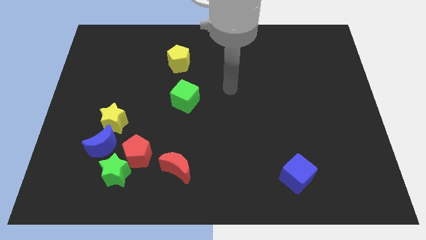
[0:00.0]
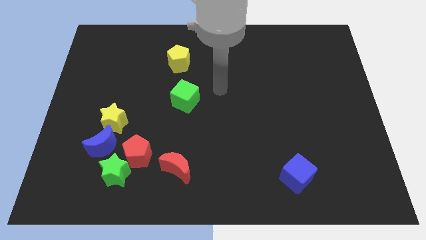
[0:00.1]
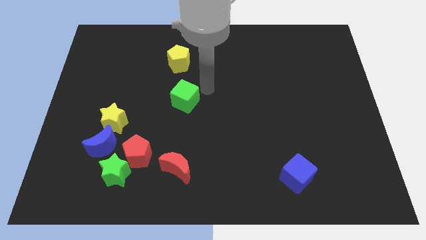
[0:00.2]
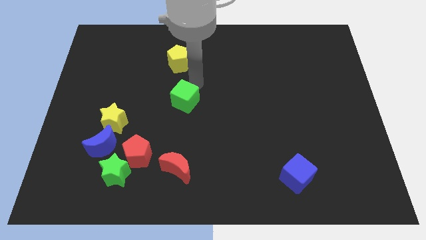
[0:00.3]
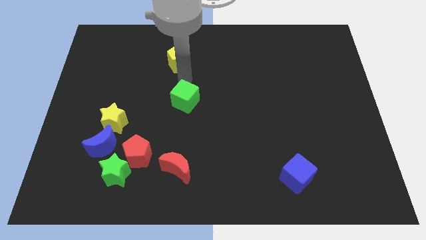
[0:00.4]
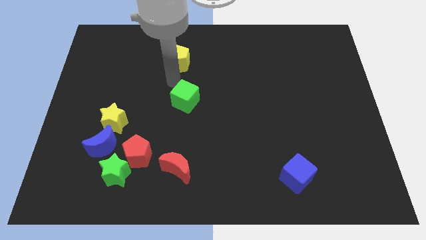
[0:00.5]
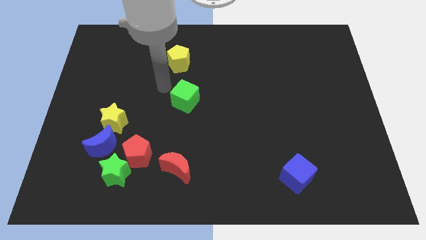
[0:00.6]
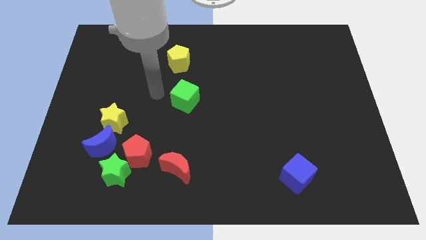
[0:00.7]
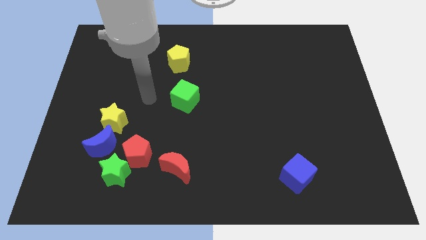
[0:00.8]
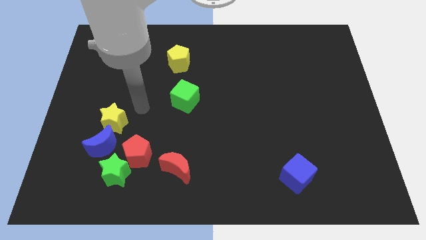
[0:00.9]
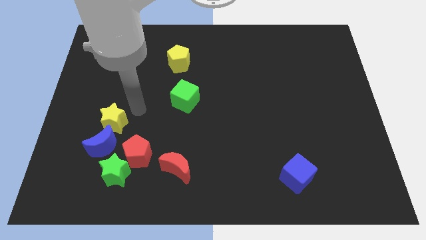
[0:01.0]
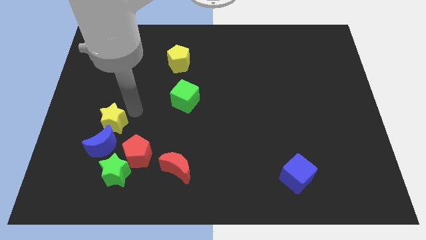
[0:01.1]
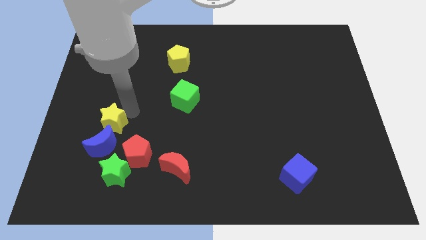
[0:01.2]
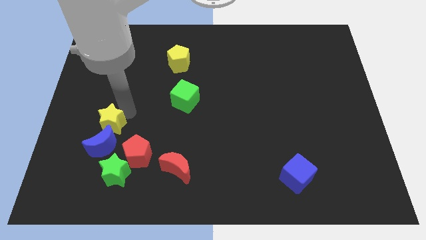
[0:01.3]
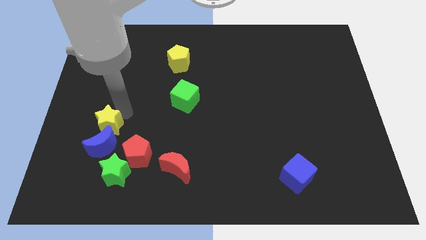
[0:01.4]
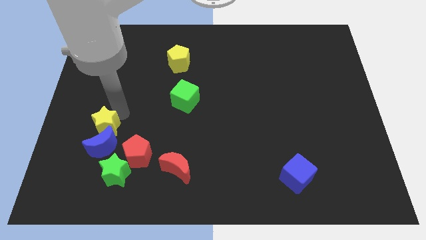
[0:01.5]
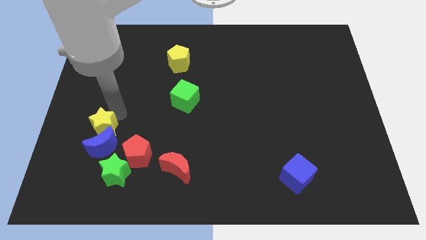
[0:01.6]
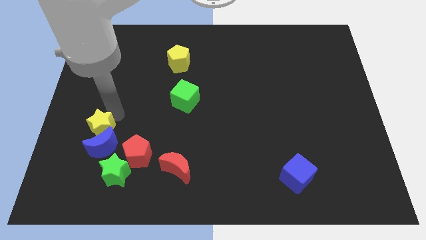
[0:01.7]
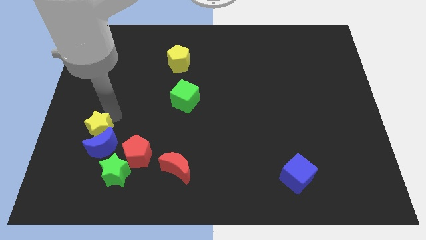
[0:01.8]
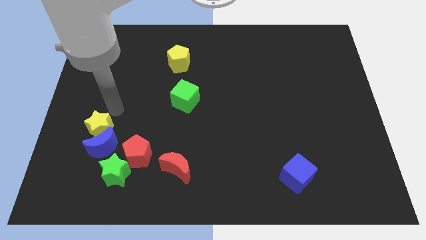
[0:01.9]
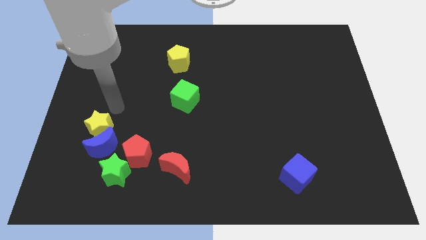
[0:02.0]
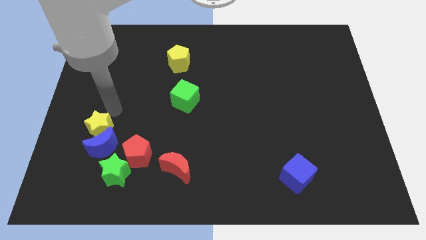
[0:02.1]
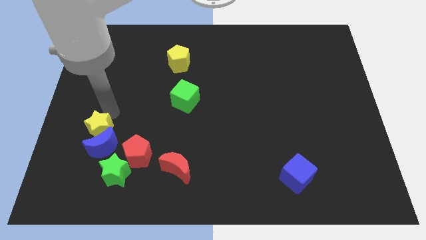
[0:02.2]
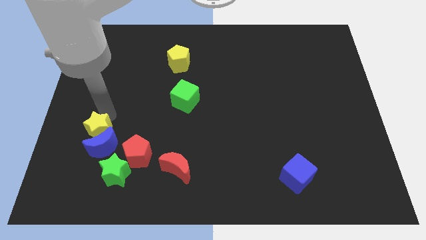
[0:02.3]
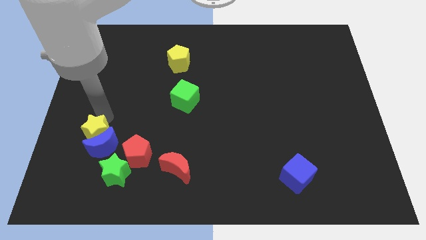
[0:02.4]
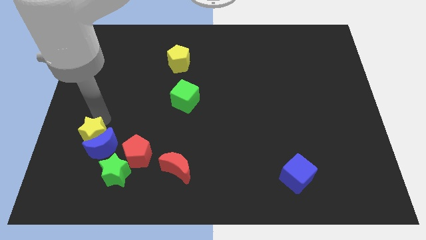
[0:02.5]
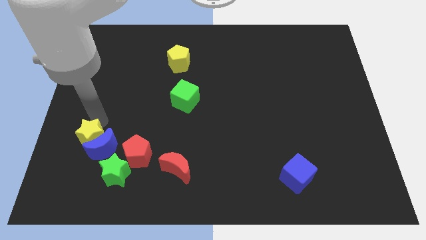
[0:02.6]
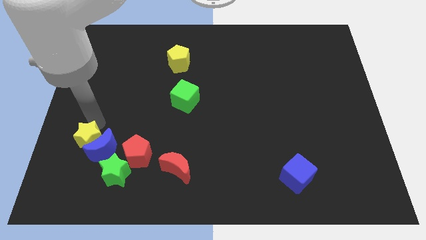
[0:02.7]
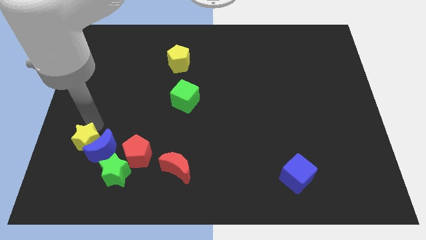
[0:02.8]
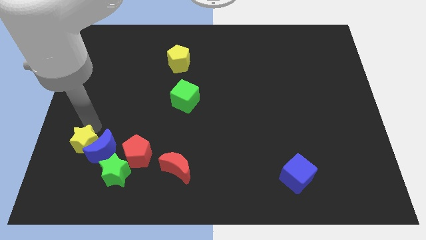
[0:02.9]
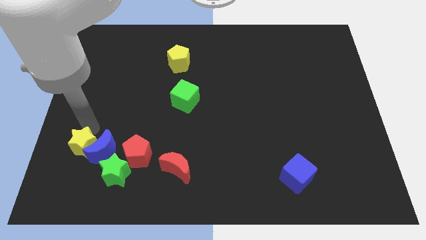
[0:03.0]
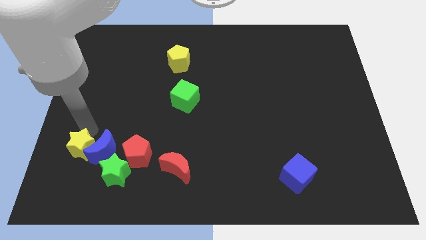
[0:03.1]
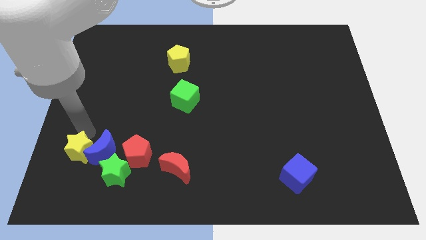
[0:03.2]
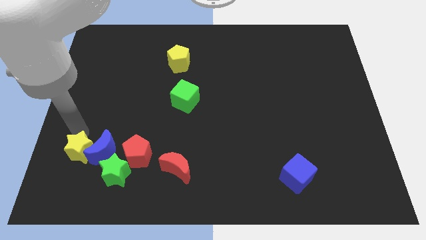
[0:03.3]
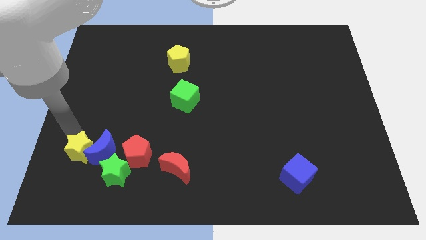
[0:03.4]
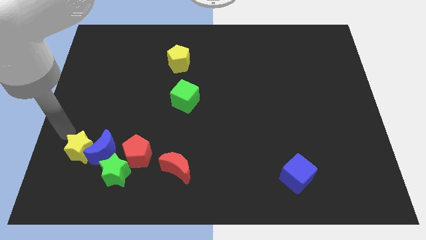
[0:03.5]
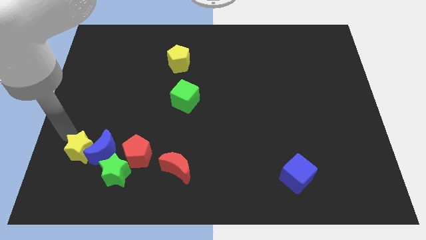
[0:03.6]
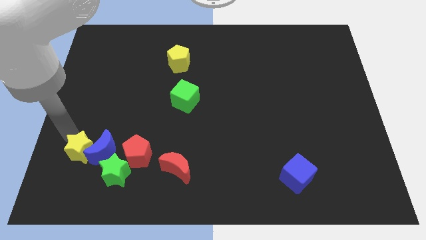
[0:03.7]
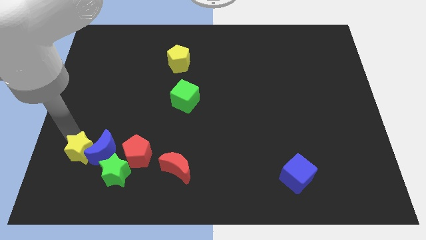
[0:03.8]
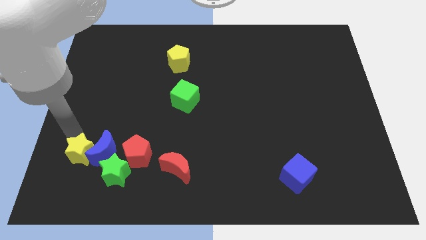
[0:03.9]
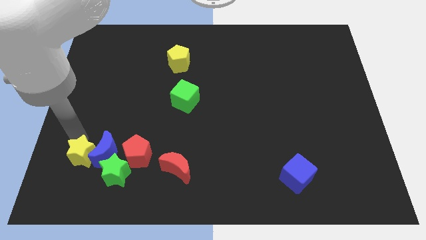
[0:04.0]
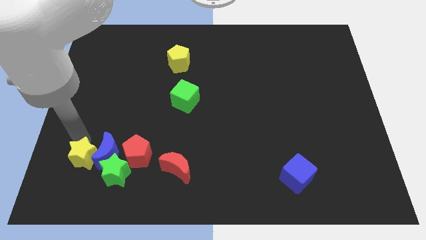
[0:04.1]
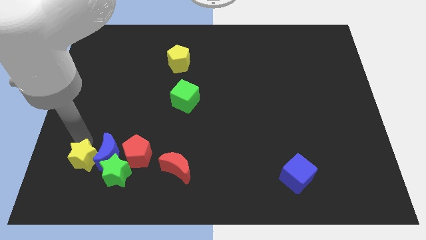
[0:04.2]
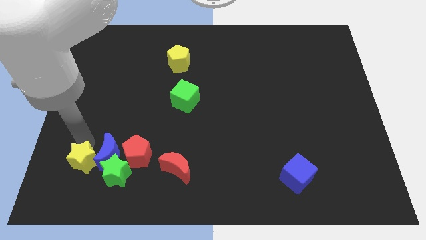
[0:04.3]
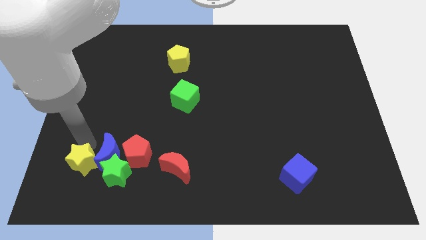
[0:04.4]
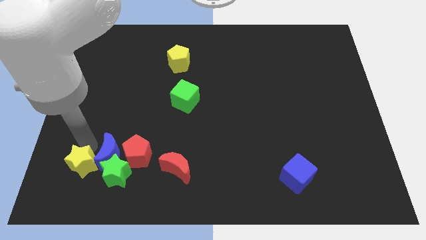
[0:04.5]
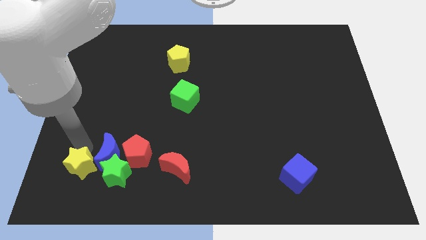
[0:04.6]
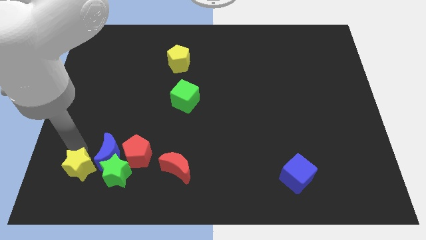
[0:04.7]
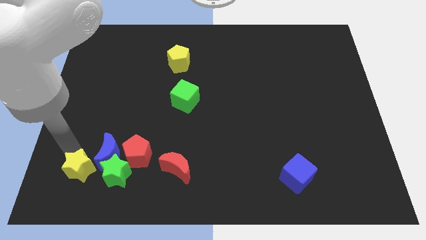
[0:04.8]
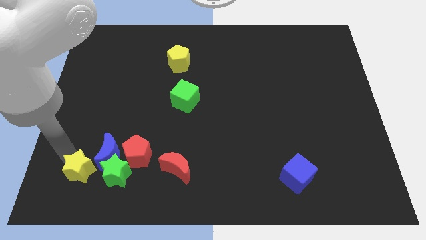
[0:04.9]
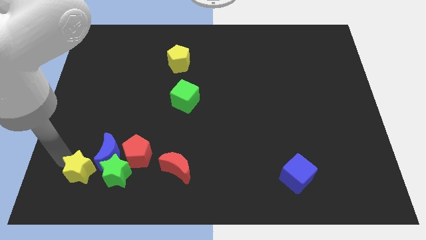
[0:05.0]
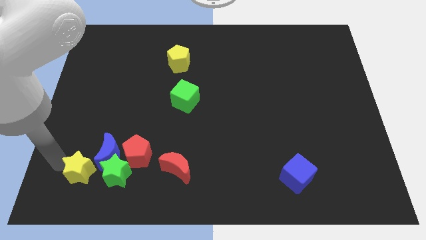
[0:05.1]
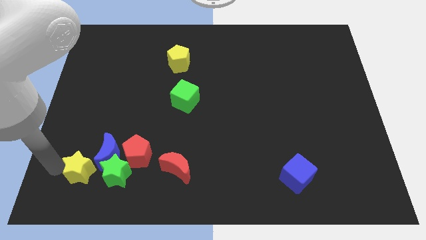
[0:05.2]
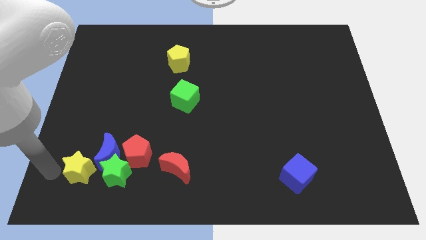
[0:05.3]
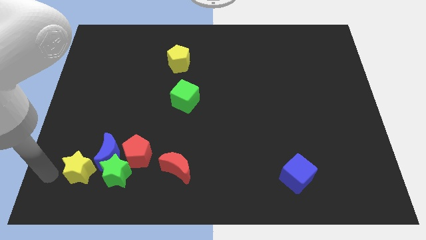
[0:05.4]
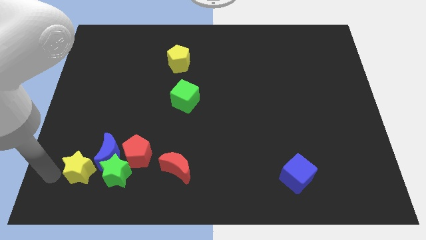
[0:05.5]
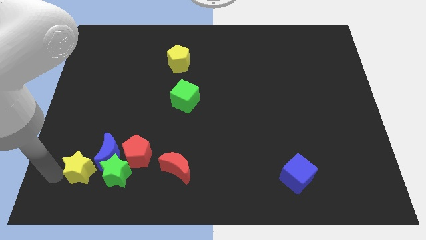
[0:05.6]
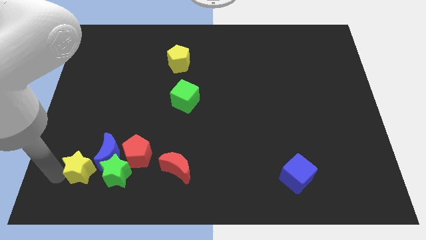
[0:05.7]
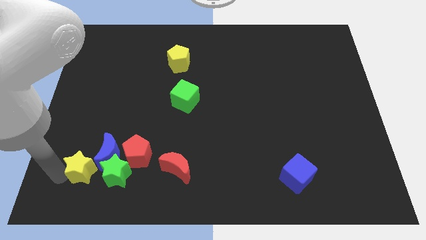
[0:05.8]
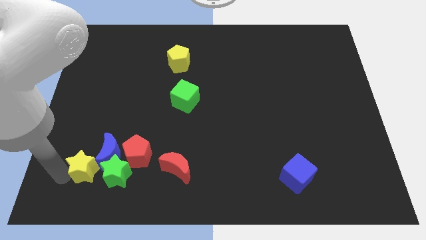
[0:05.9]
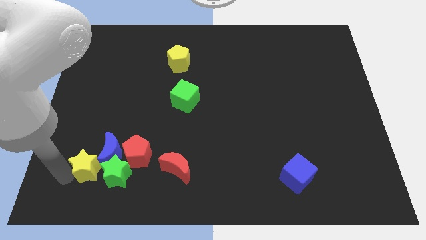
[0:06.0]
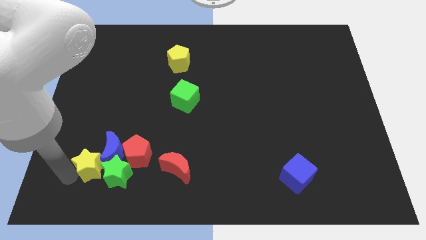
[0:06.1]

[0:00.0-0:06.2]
slide the yellow star close to the green star

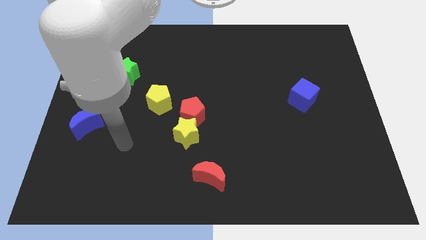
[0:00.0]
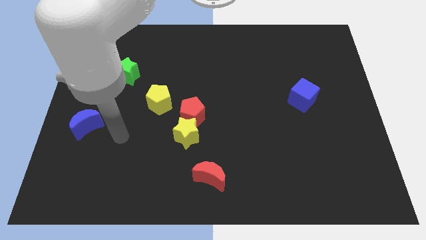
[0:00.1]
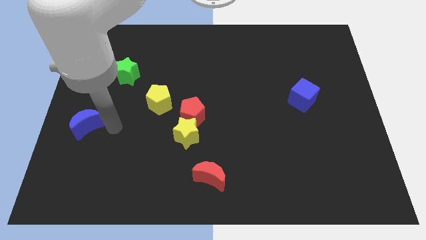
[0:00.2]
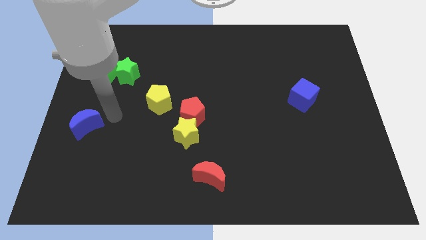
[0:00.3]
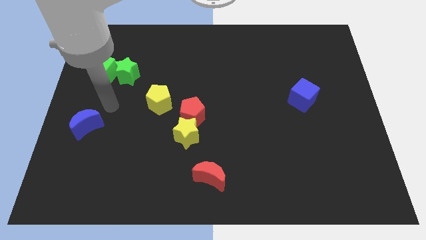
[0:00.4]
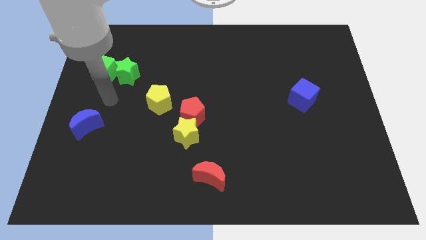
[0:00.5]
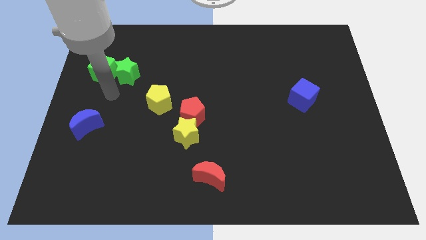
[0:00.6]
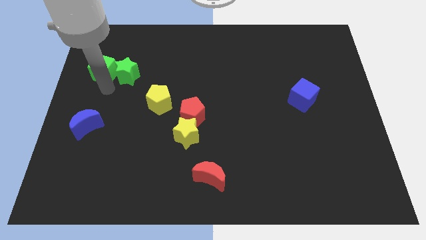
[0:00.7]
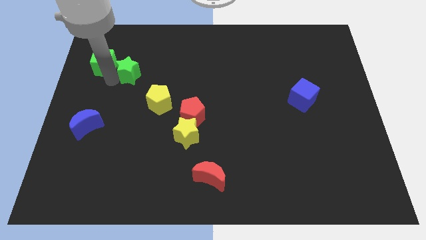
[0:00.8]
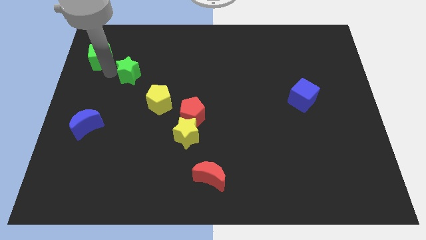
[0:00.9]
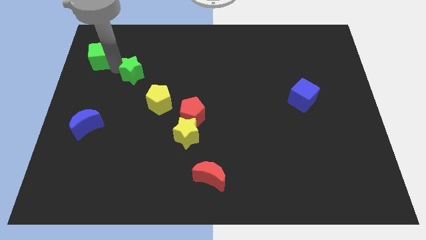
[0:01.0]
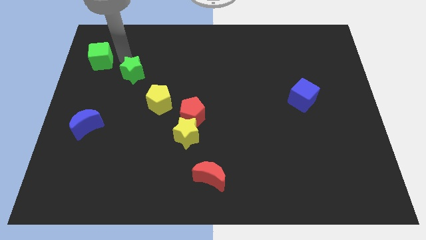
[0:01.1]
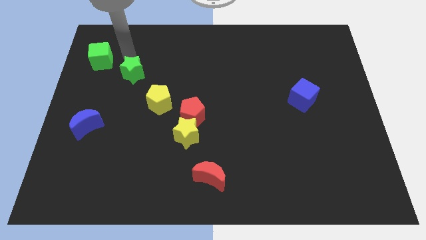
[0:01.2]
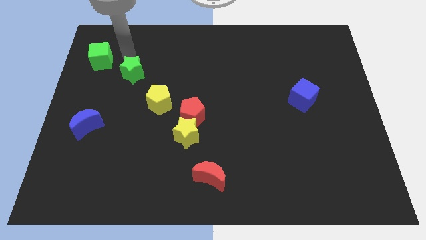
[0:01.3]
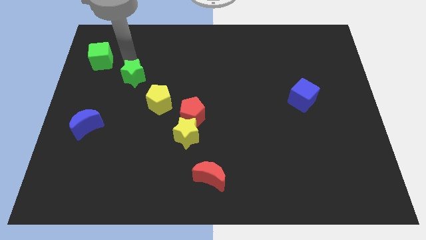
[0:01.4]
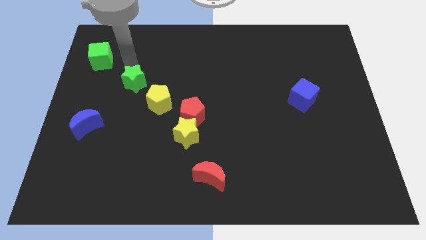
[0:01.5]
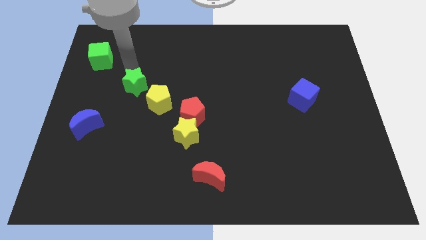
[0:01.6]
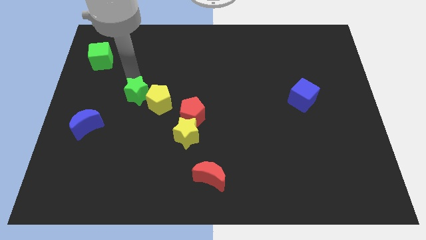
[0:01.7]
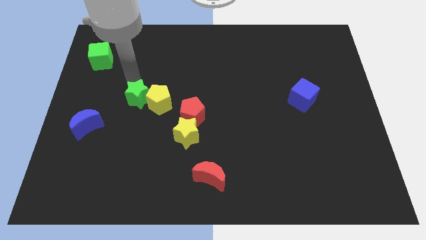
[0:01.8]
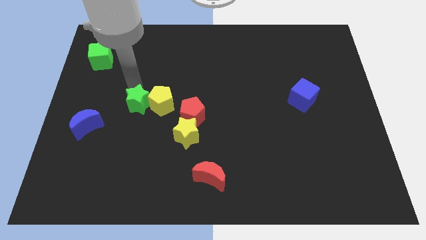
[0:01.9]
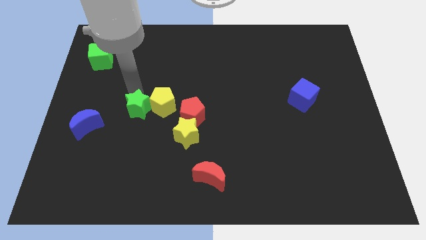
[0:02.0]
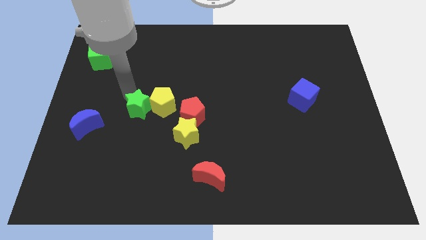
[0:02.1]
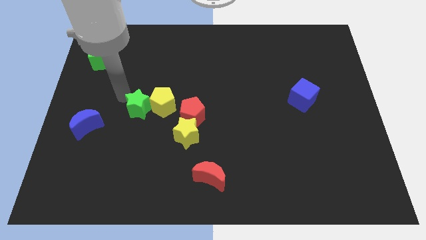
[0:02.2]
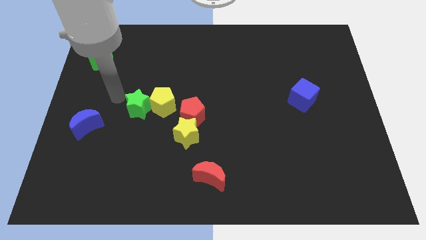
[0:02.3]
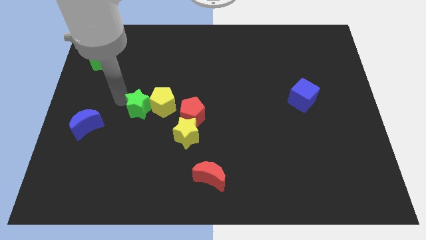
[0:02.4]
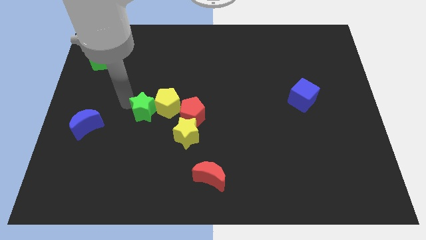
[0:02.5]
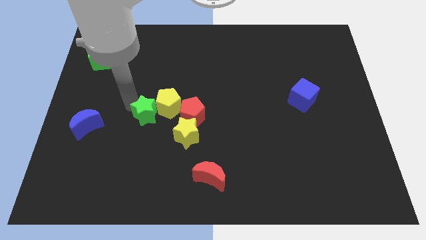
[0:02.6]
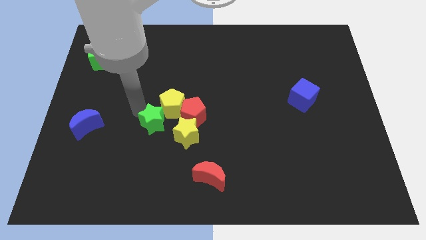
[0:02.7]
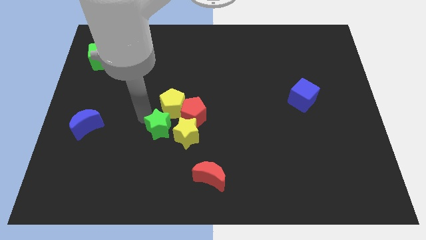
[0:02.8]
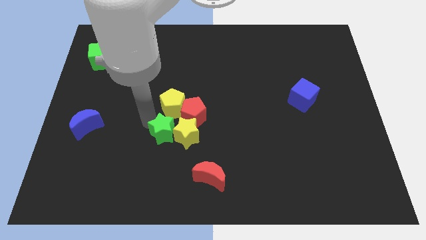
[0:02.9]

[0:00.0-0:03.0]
move the green star close to the yellow star
